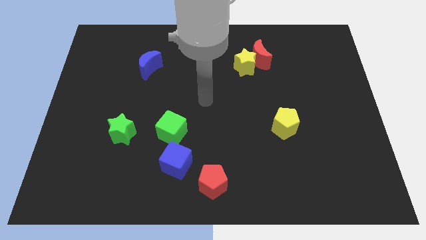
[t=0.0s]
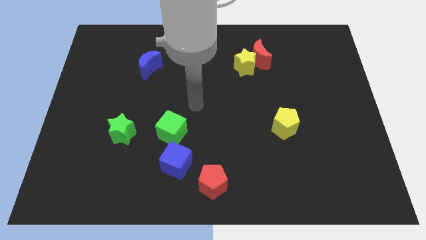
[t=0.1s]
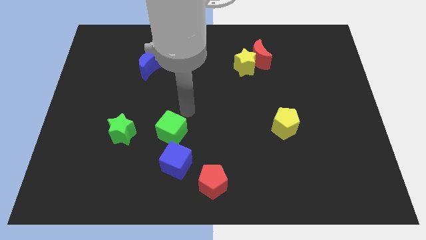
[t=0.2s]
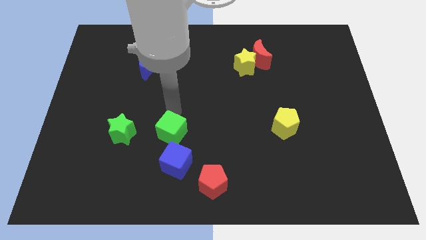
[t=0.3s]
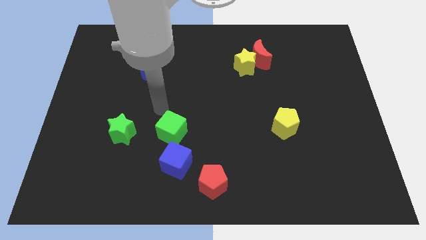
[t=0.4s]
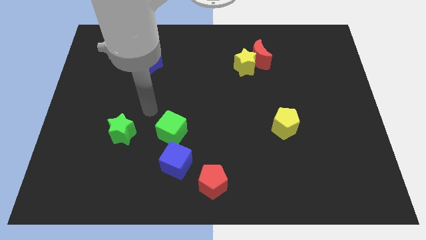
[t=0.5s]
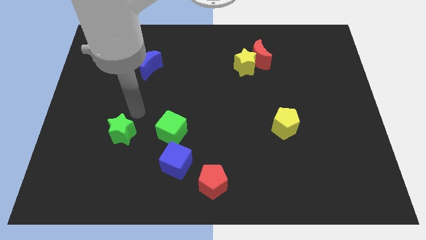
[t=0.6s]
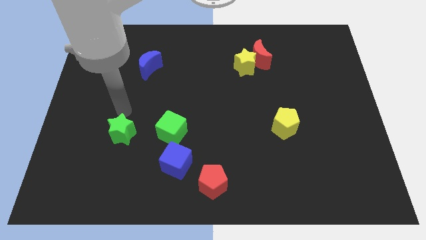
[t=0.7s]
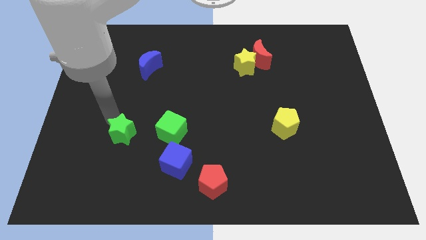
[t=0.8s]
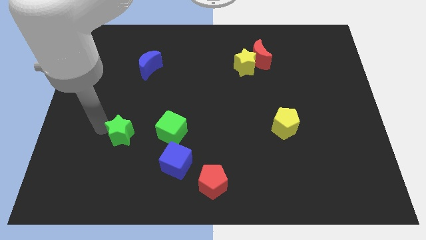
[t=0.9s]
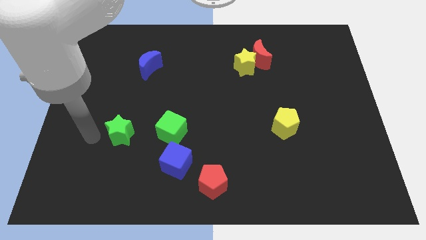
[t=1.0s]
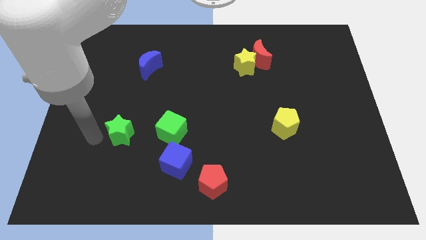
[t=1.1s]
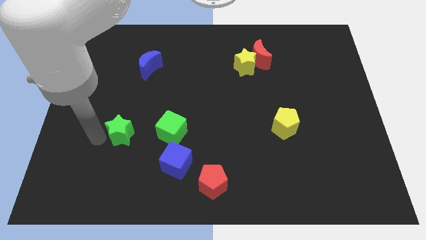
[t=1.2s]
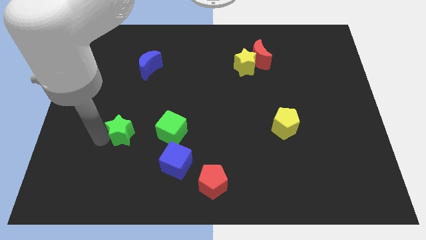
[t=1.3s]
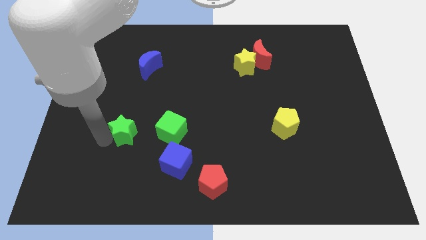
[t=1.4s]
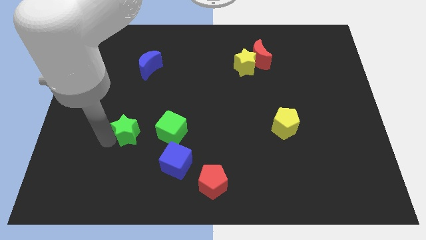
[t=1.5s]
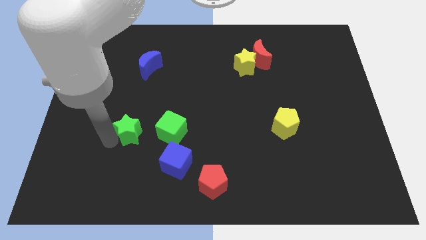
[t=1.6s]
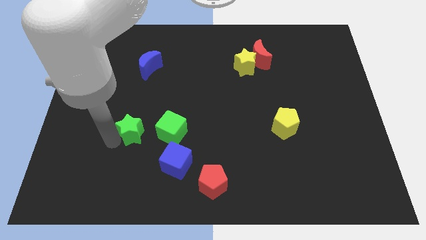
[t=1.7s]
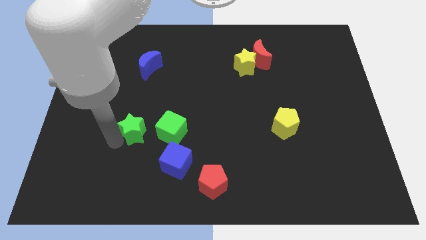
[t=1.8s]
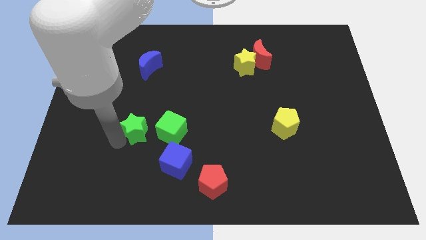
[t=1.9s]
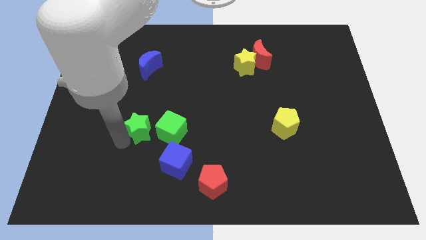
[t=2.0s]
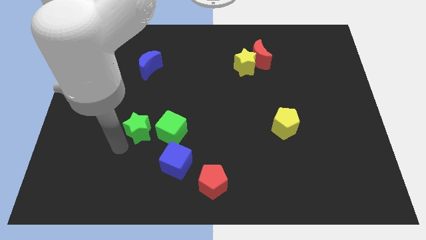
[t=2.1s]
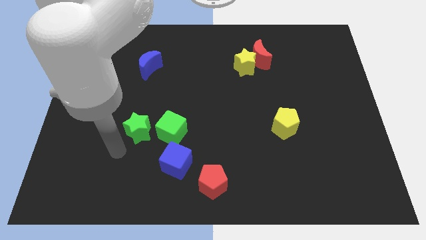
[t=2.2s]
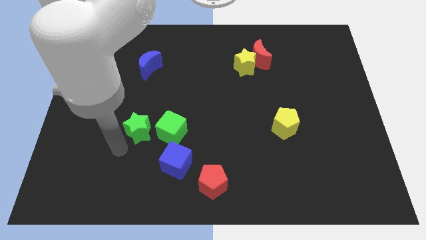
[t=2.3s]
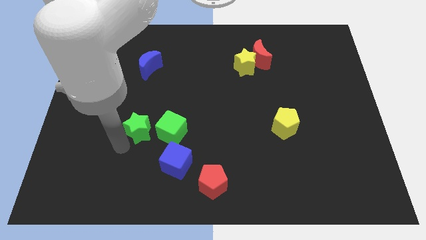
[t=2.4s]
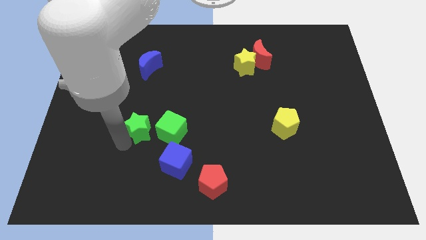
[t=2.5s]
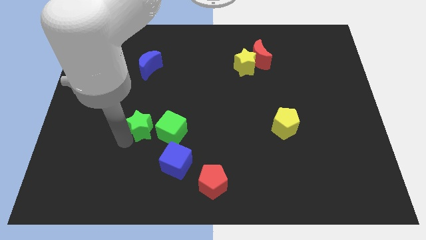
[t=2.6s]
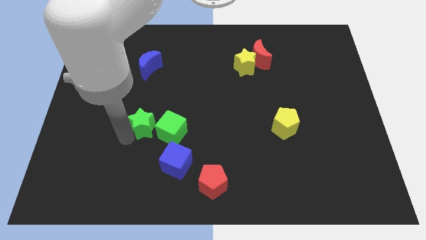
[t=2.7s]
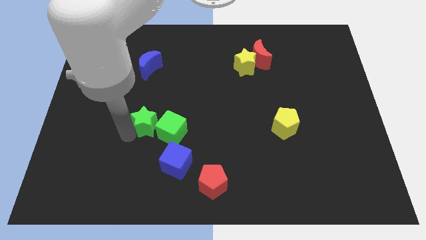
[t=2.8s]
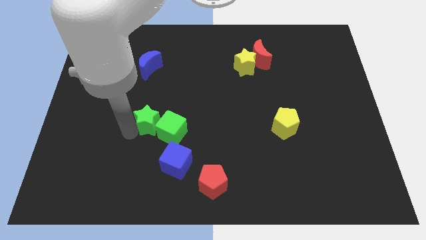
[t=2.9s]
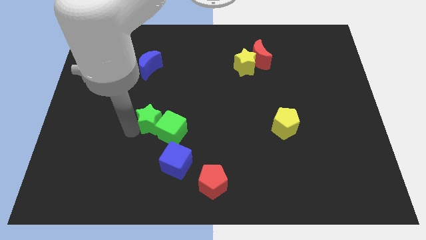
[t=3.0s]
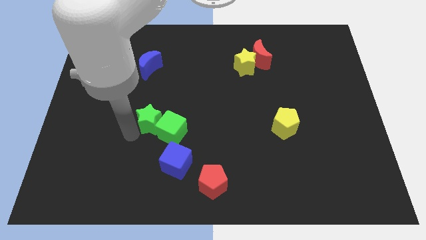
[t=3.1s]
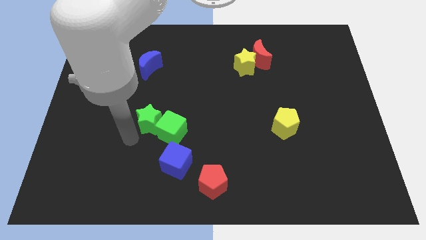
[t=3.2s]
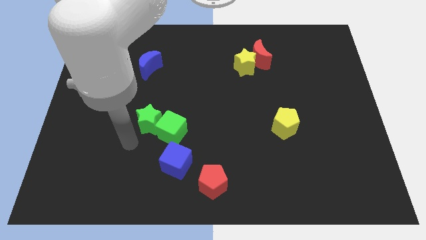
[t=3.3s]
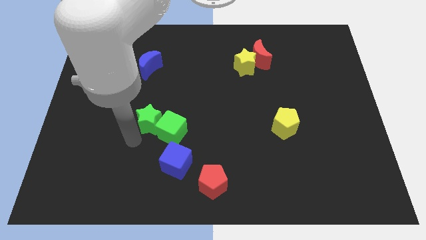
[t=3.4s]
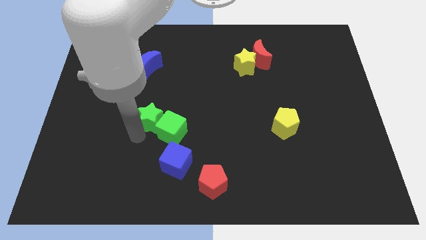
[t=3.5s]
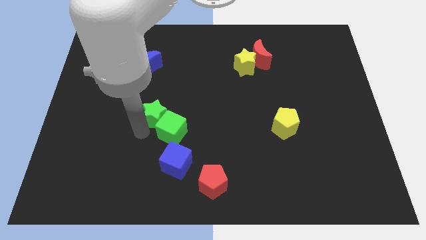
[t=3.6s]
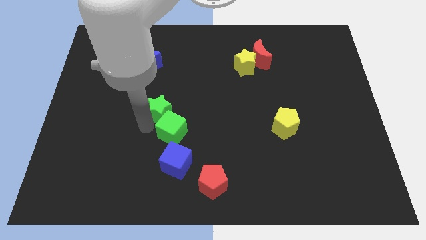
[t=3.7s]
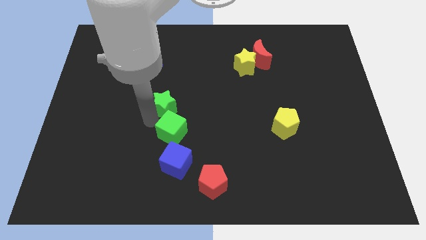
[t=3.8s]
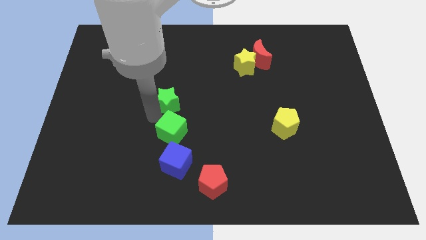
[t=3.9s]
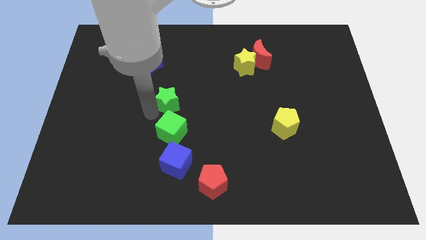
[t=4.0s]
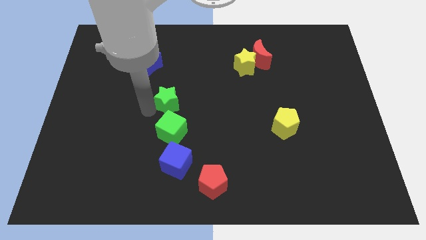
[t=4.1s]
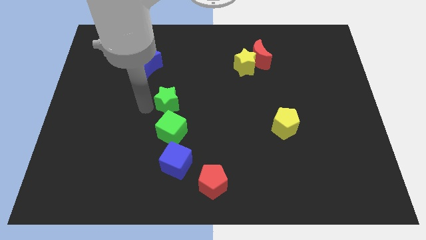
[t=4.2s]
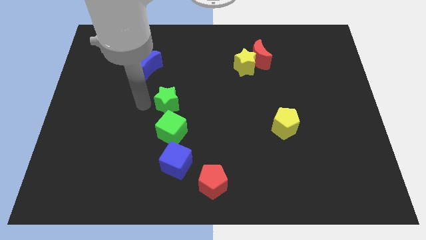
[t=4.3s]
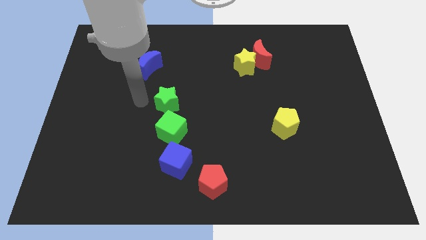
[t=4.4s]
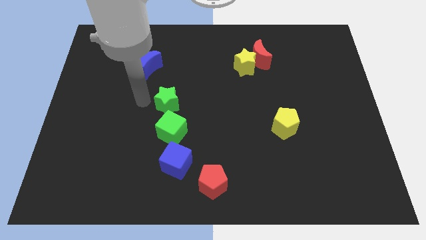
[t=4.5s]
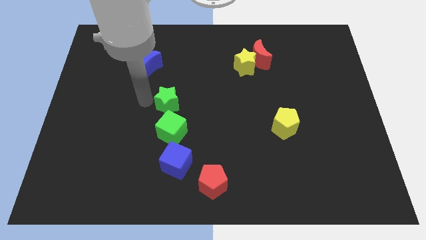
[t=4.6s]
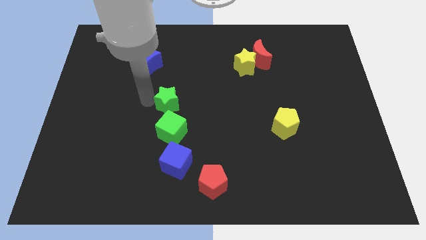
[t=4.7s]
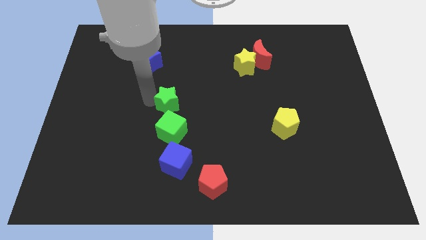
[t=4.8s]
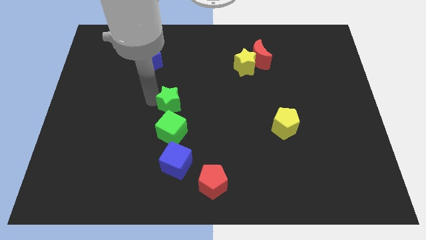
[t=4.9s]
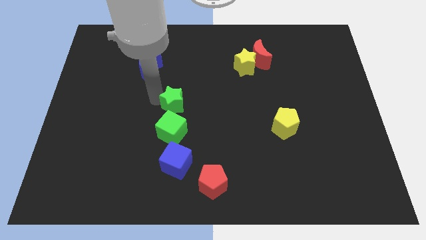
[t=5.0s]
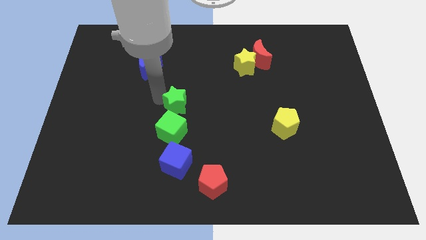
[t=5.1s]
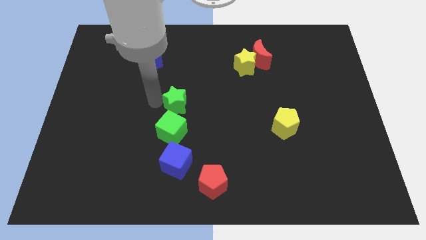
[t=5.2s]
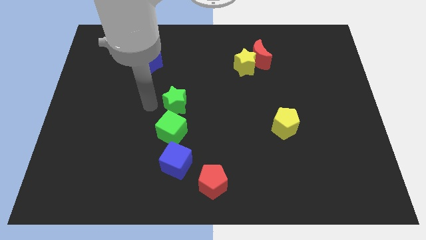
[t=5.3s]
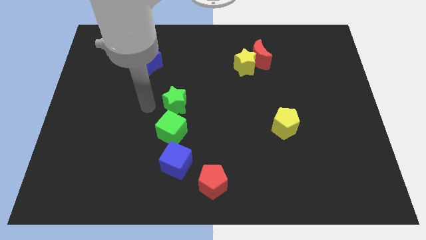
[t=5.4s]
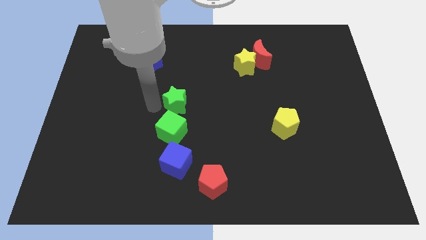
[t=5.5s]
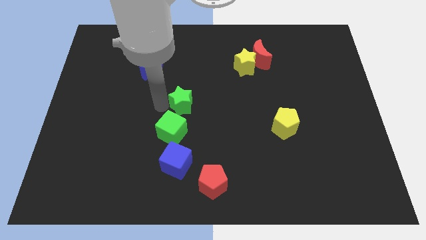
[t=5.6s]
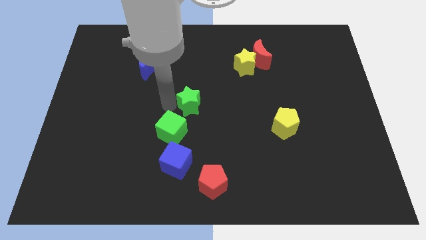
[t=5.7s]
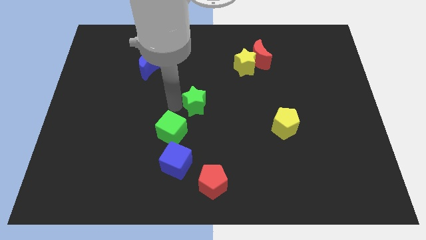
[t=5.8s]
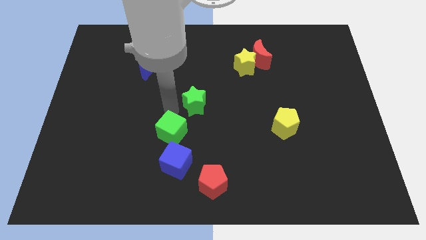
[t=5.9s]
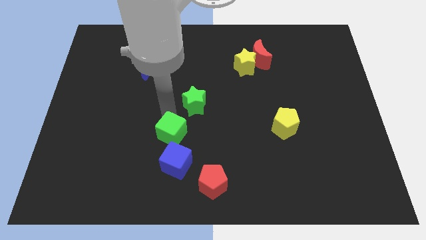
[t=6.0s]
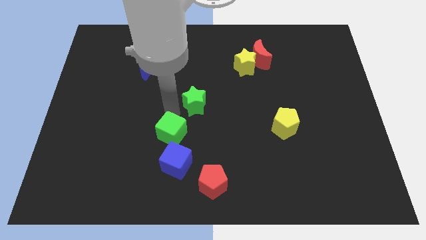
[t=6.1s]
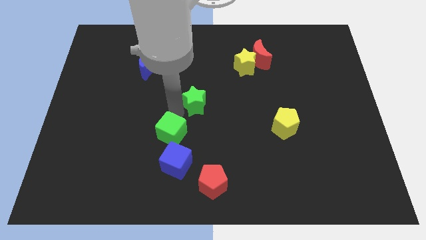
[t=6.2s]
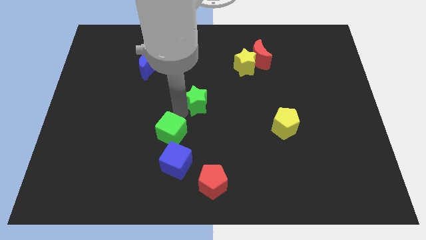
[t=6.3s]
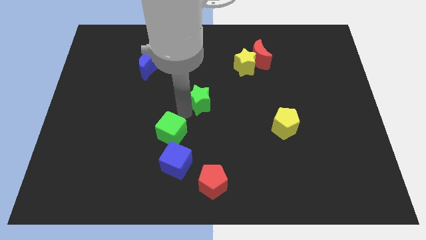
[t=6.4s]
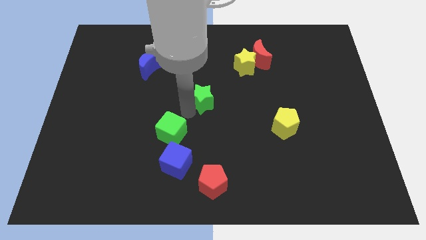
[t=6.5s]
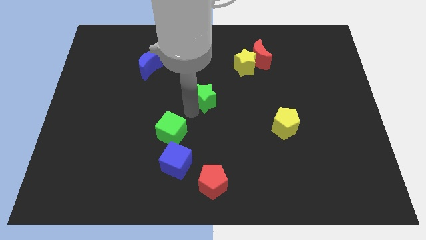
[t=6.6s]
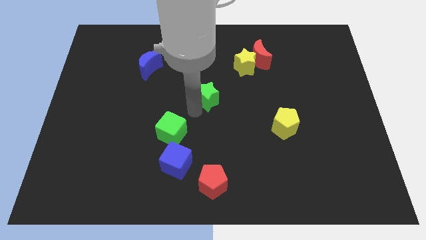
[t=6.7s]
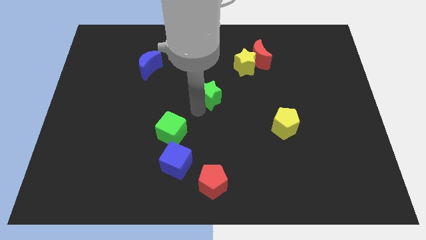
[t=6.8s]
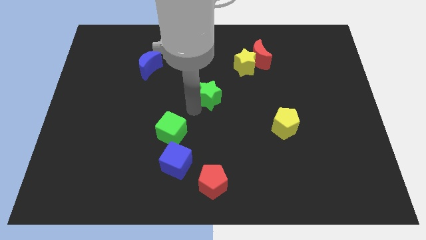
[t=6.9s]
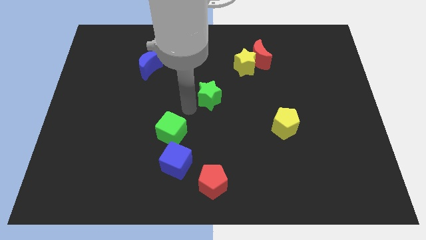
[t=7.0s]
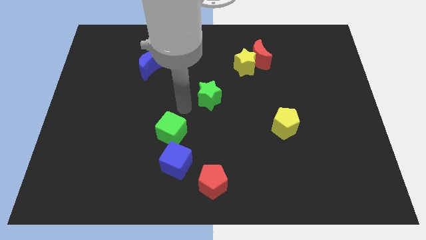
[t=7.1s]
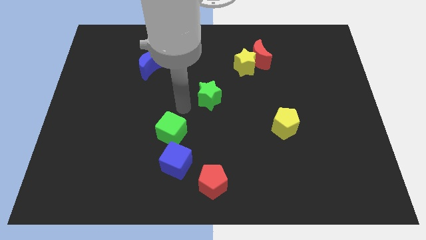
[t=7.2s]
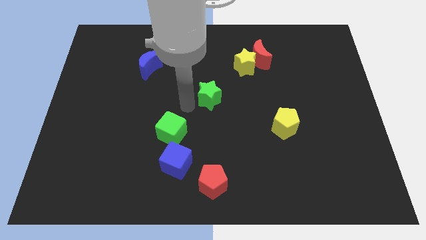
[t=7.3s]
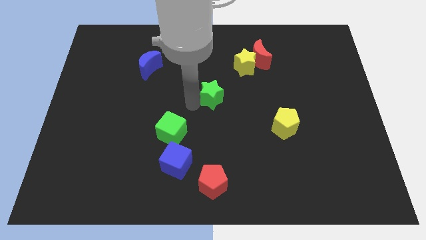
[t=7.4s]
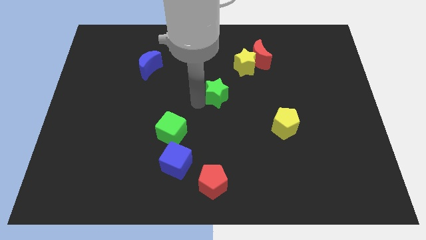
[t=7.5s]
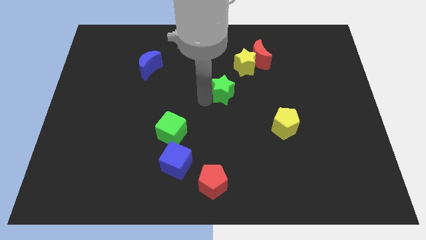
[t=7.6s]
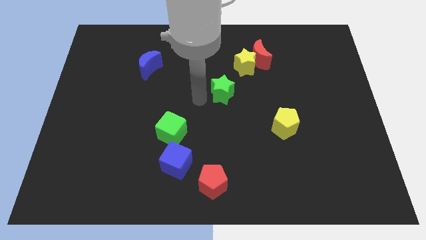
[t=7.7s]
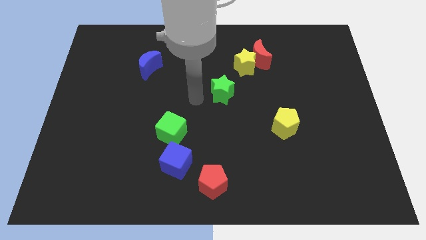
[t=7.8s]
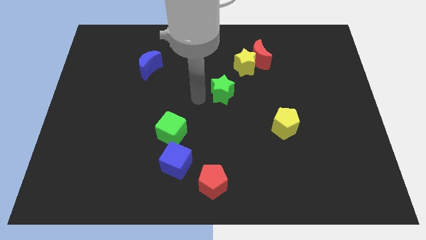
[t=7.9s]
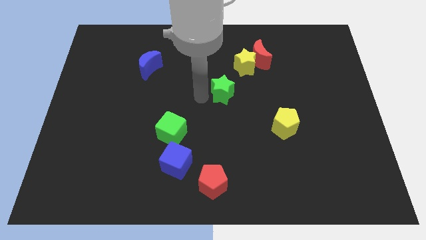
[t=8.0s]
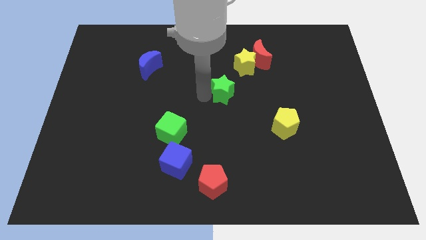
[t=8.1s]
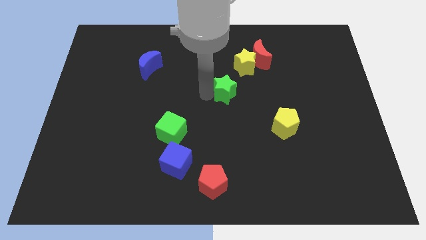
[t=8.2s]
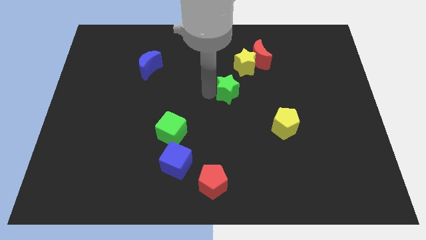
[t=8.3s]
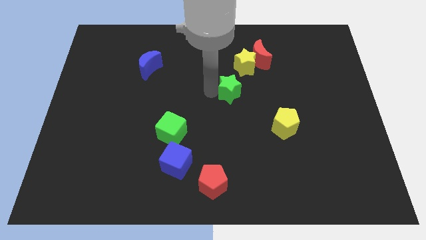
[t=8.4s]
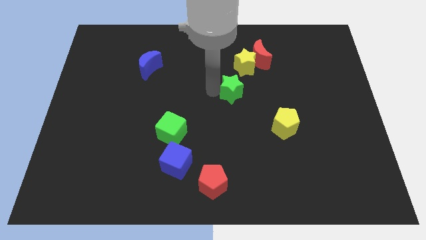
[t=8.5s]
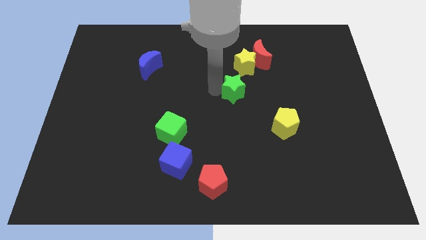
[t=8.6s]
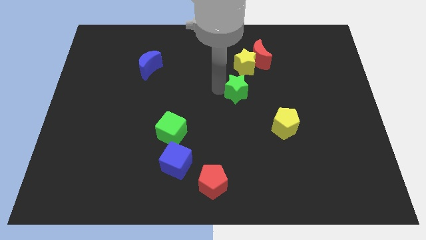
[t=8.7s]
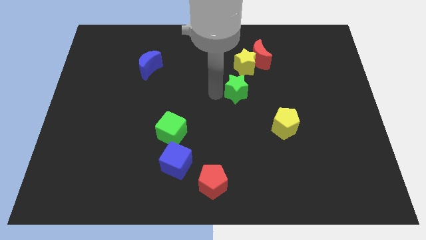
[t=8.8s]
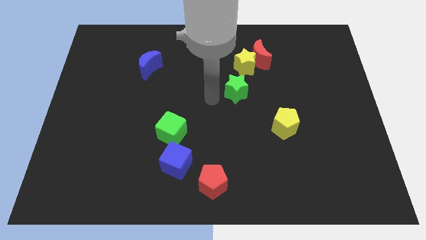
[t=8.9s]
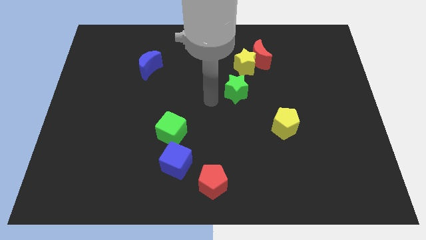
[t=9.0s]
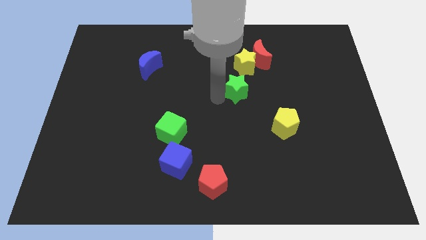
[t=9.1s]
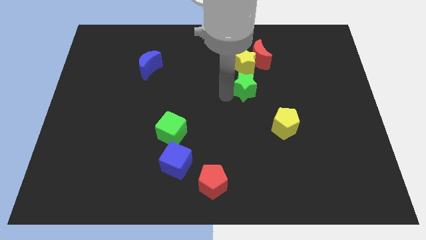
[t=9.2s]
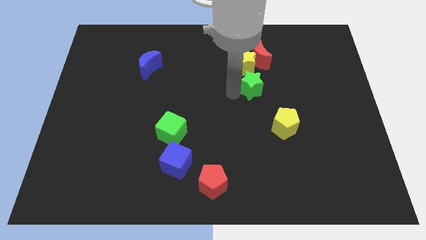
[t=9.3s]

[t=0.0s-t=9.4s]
push the green star to the bottom right side of the yellow star
